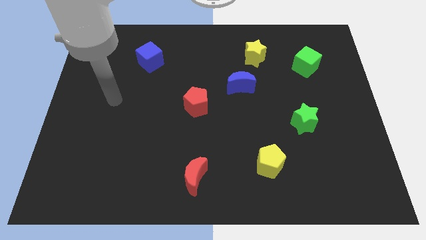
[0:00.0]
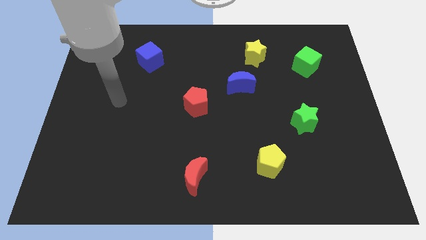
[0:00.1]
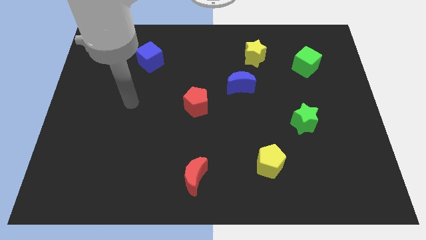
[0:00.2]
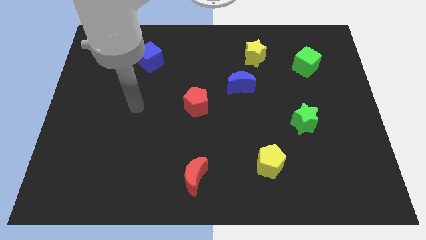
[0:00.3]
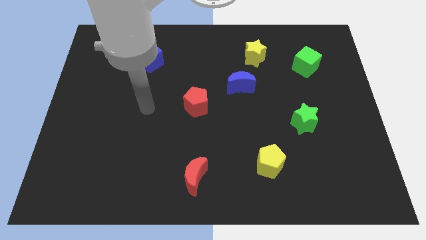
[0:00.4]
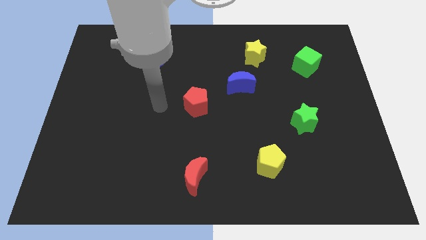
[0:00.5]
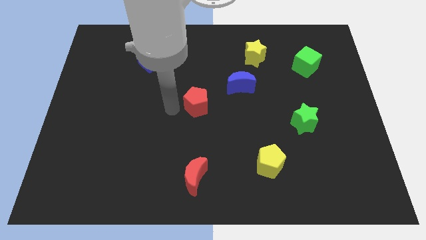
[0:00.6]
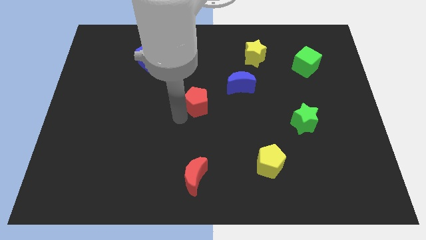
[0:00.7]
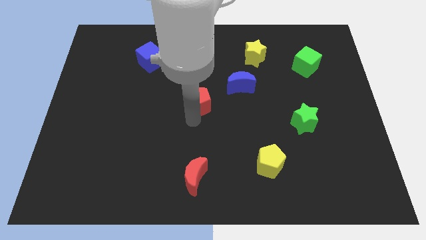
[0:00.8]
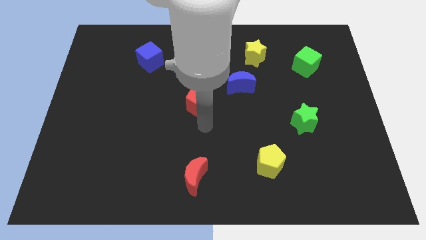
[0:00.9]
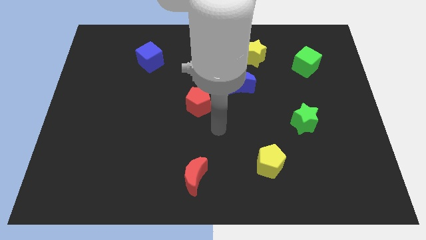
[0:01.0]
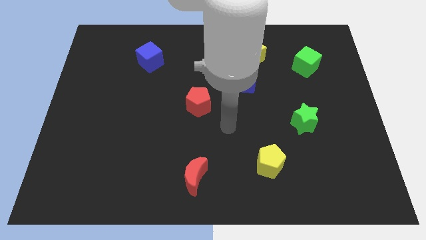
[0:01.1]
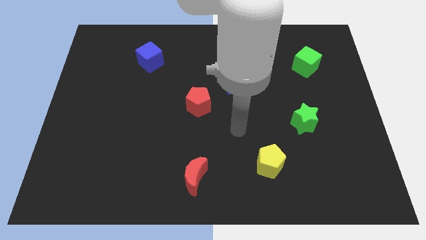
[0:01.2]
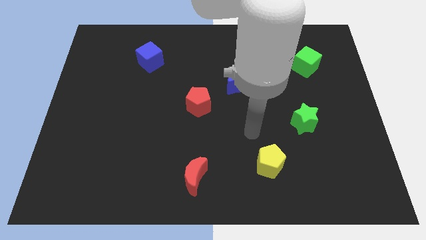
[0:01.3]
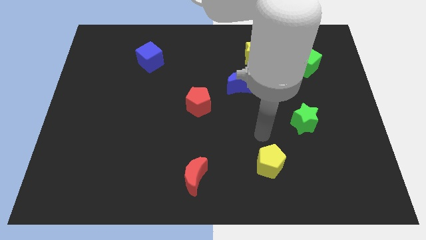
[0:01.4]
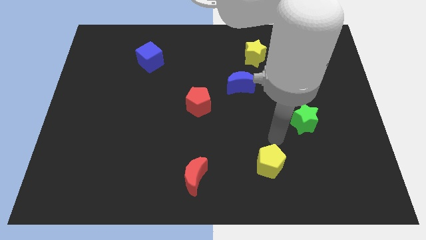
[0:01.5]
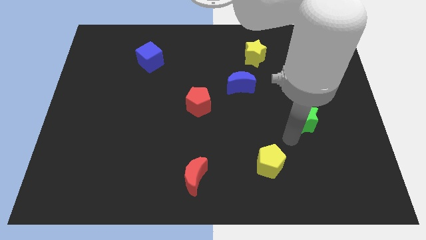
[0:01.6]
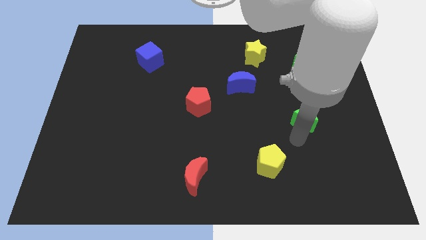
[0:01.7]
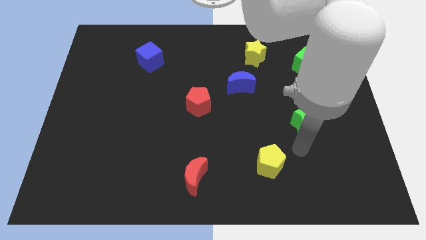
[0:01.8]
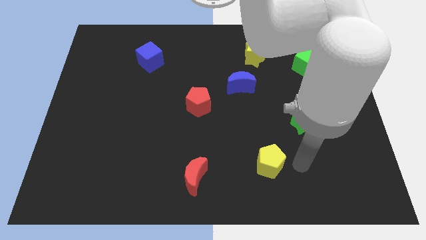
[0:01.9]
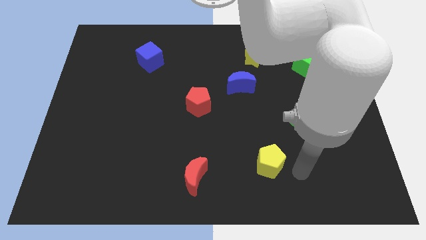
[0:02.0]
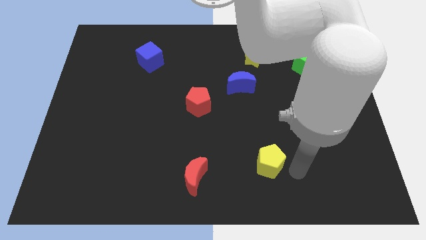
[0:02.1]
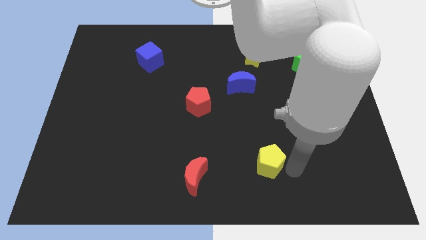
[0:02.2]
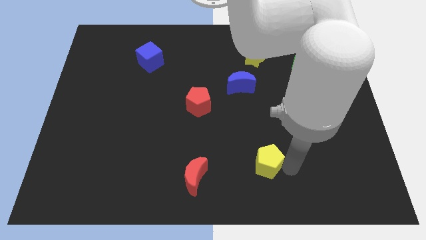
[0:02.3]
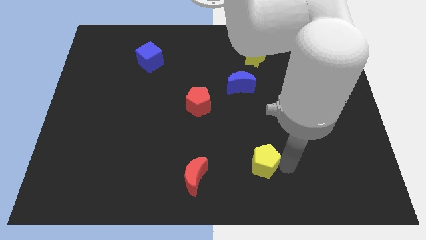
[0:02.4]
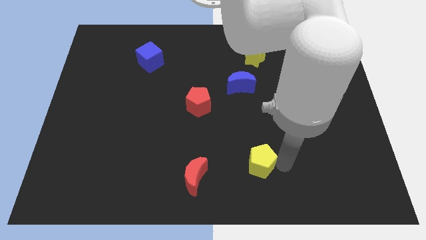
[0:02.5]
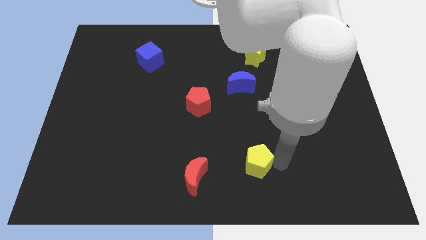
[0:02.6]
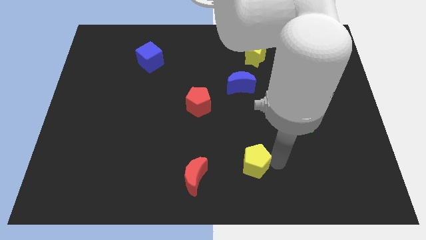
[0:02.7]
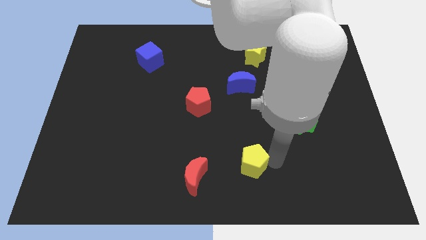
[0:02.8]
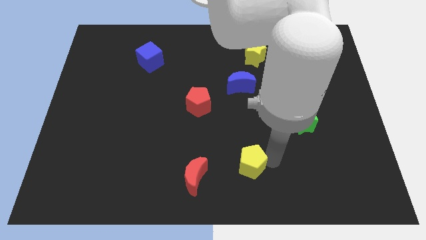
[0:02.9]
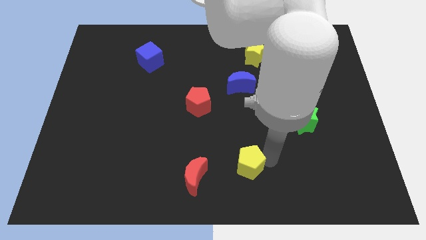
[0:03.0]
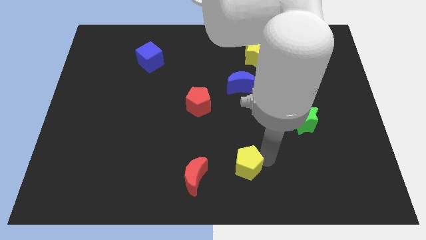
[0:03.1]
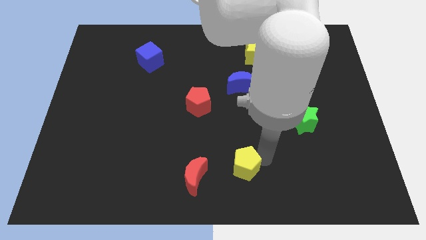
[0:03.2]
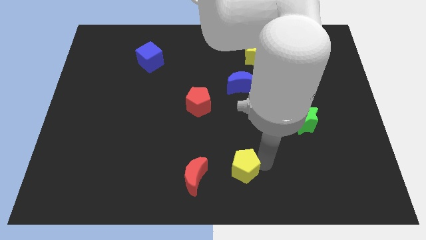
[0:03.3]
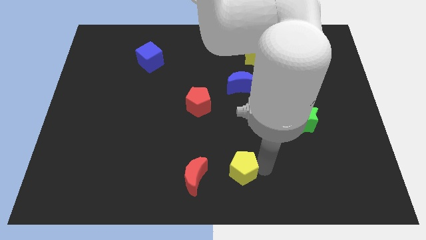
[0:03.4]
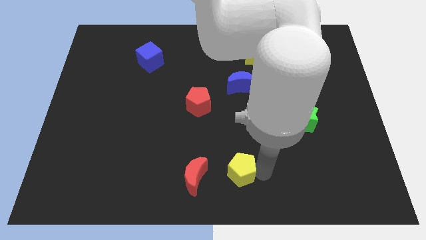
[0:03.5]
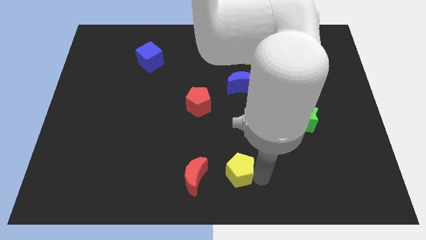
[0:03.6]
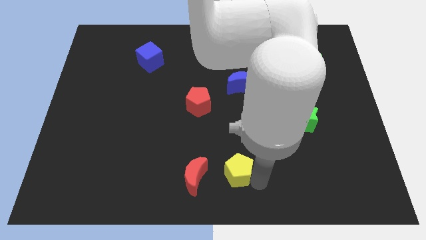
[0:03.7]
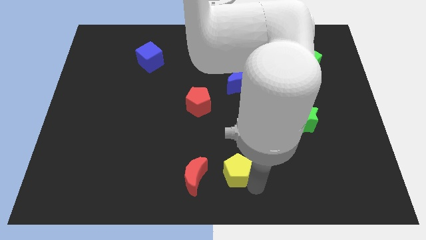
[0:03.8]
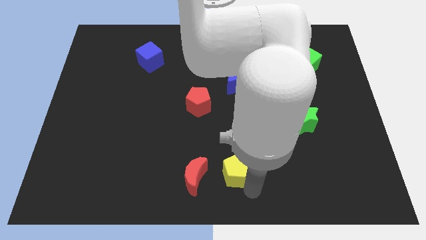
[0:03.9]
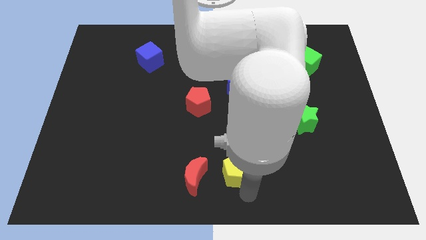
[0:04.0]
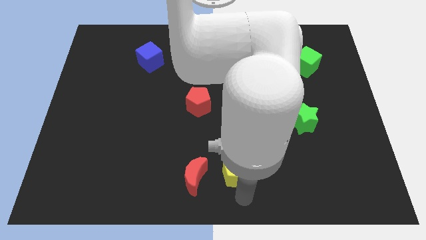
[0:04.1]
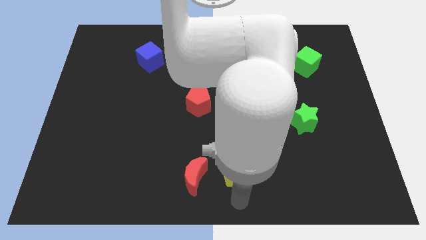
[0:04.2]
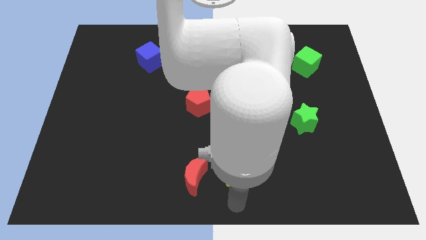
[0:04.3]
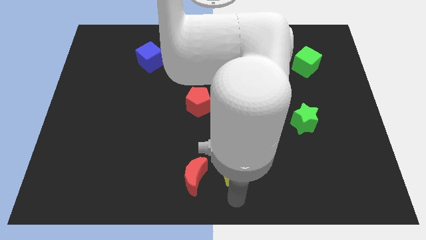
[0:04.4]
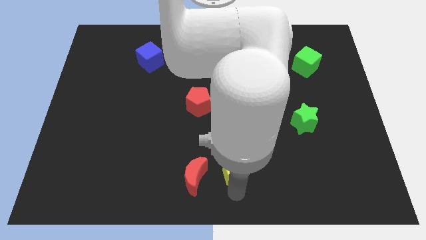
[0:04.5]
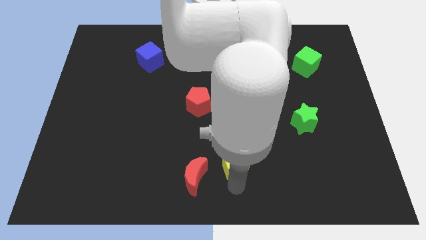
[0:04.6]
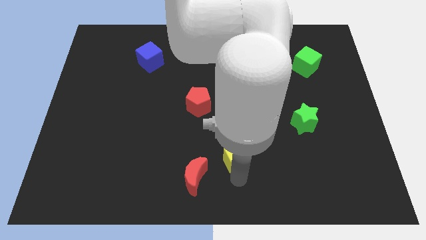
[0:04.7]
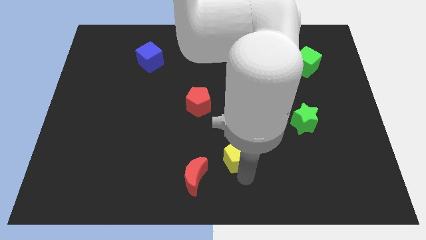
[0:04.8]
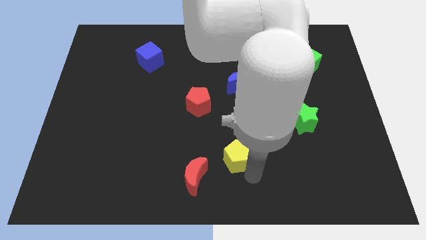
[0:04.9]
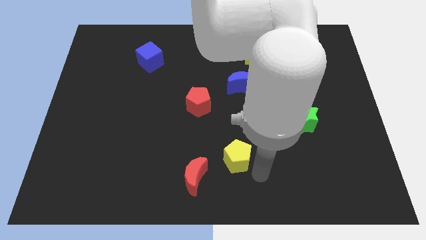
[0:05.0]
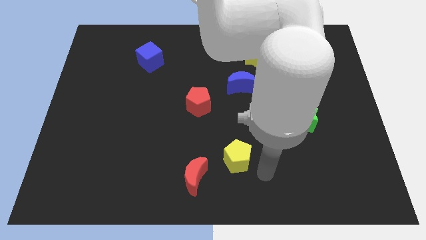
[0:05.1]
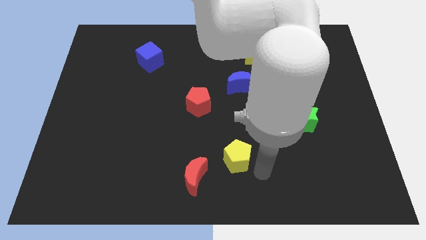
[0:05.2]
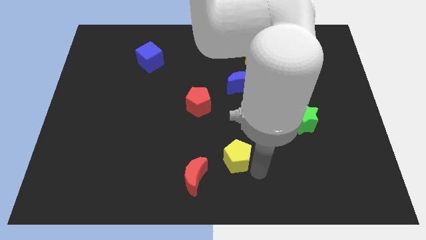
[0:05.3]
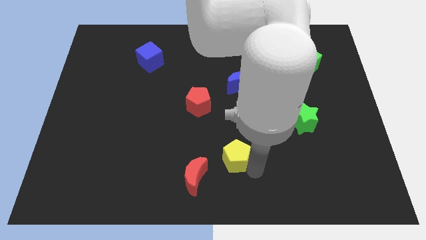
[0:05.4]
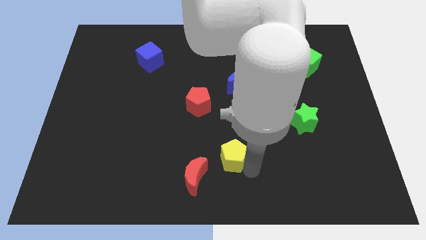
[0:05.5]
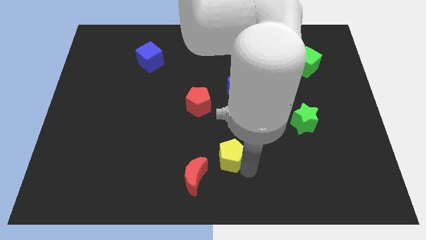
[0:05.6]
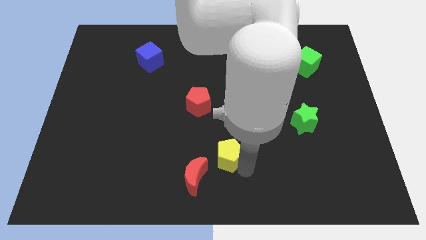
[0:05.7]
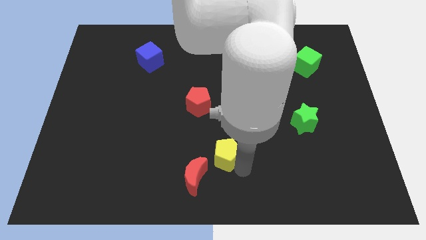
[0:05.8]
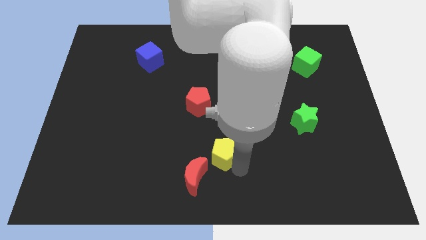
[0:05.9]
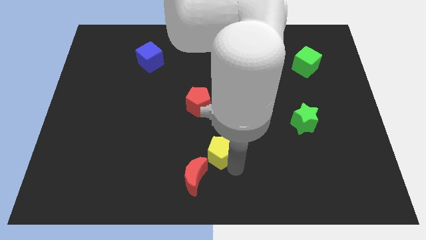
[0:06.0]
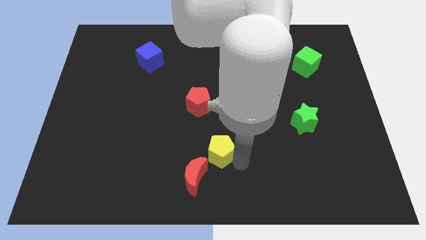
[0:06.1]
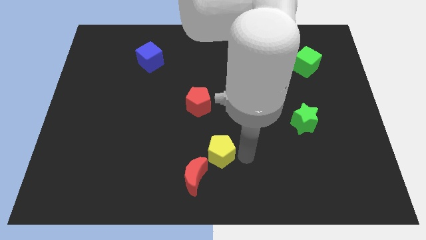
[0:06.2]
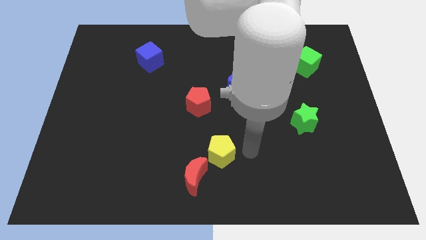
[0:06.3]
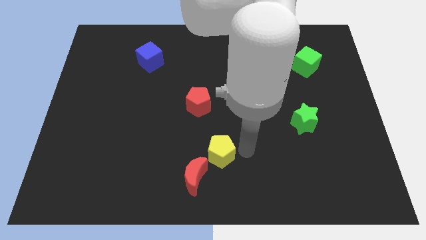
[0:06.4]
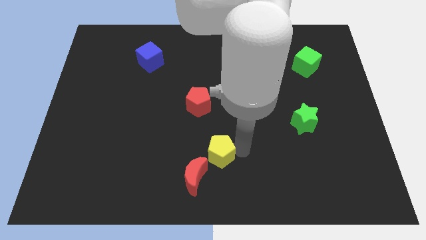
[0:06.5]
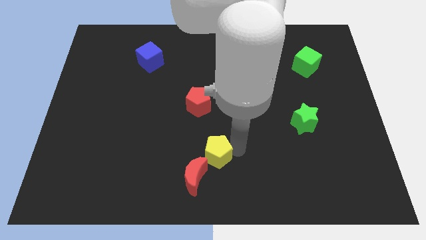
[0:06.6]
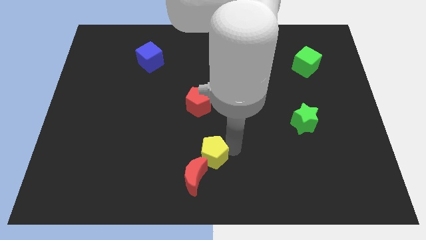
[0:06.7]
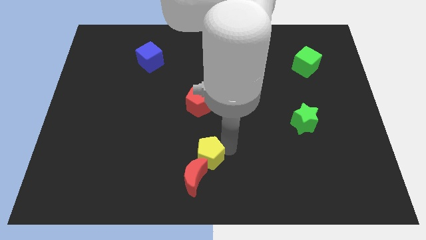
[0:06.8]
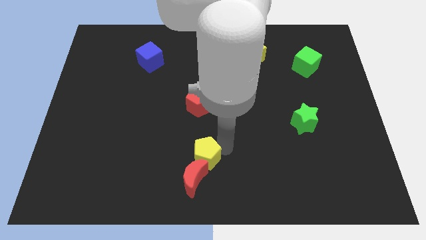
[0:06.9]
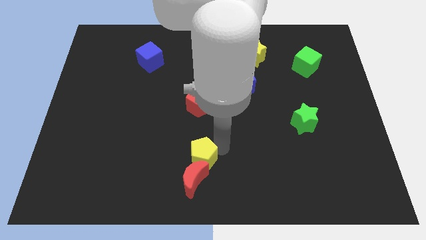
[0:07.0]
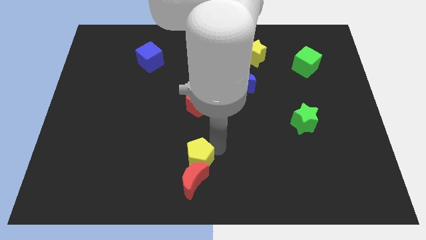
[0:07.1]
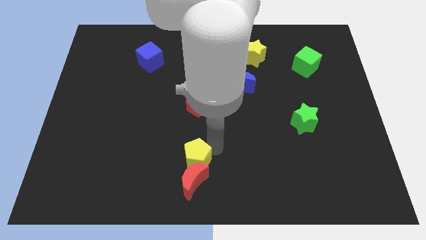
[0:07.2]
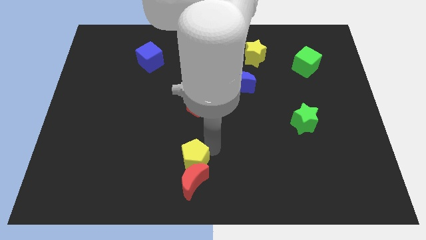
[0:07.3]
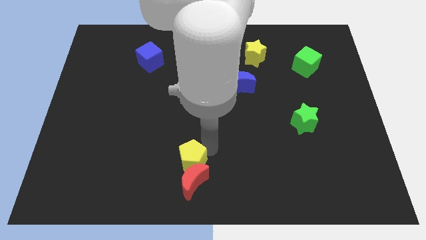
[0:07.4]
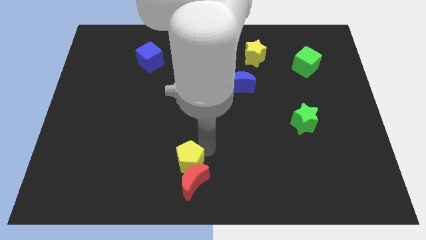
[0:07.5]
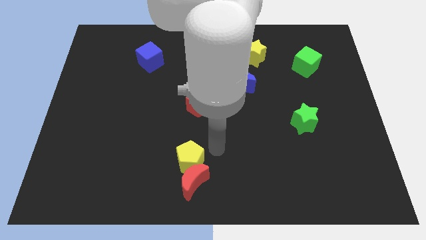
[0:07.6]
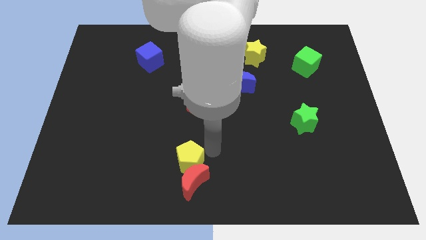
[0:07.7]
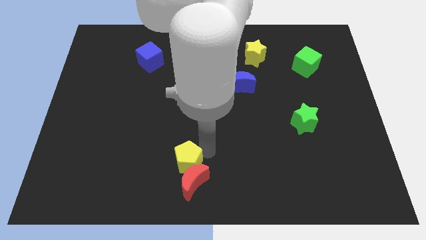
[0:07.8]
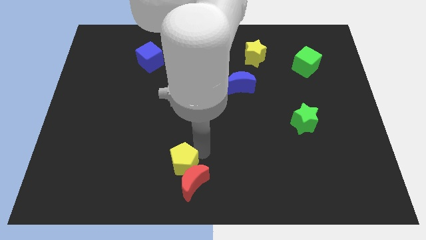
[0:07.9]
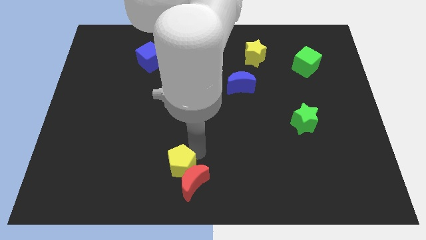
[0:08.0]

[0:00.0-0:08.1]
move the yellow pentagon to the left of the red moon
